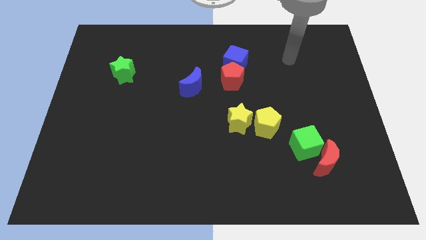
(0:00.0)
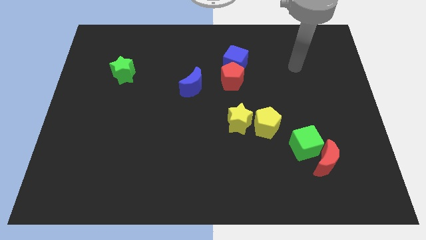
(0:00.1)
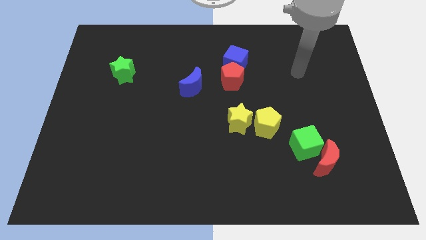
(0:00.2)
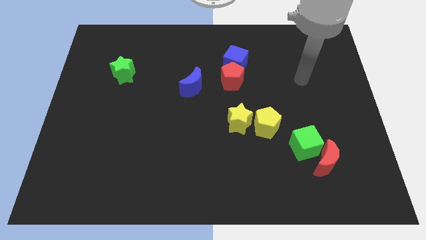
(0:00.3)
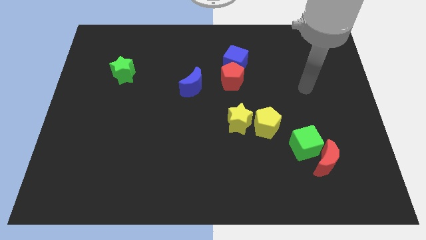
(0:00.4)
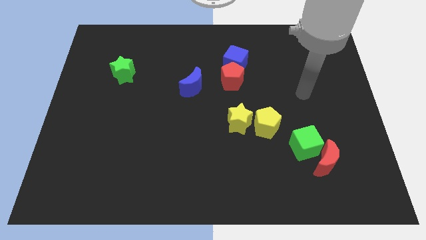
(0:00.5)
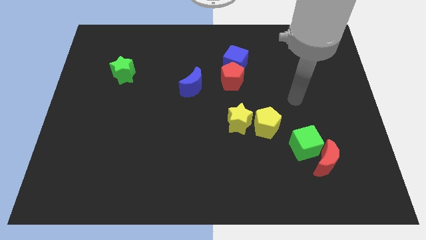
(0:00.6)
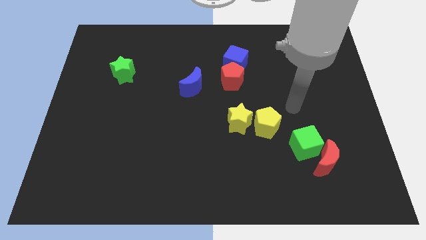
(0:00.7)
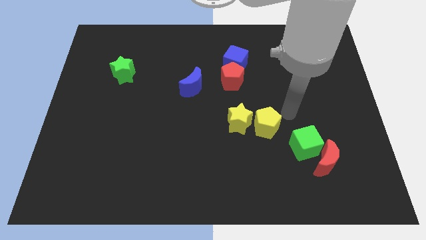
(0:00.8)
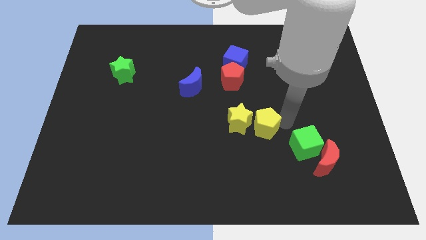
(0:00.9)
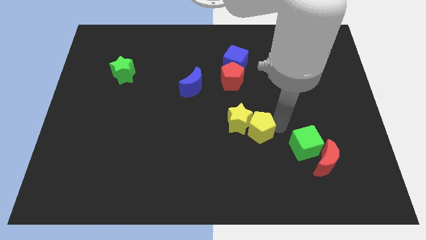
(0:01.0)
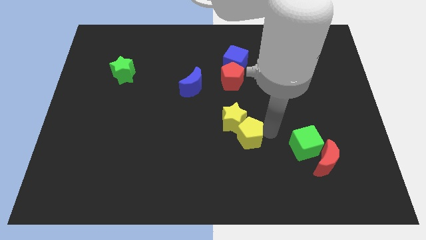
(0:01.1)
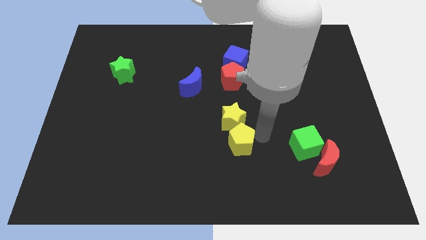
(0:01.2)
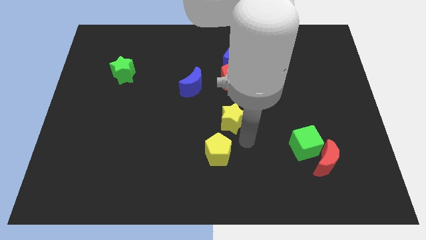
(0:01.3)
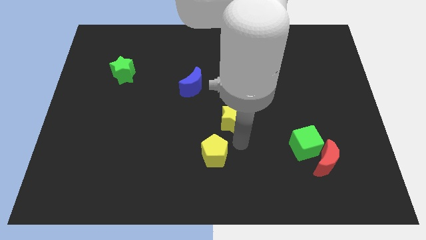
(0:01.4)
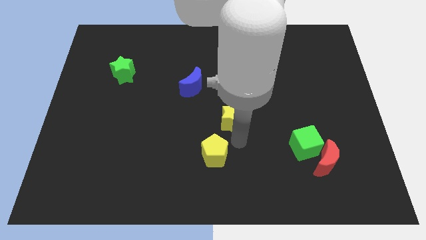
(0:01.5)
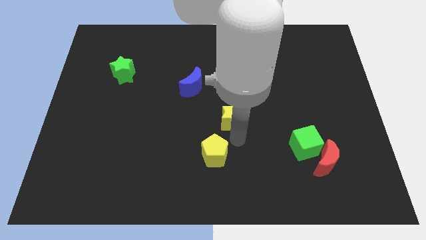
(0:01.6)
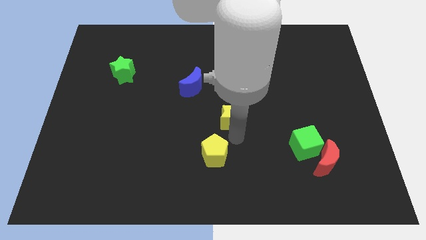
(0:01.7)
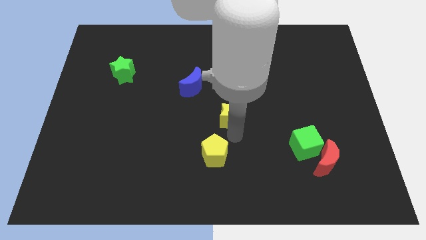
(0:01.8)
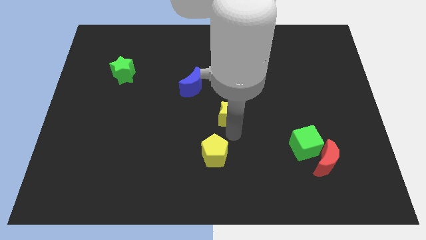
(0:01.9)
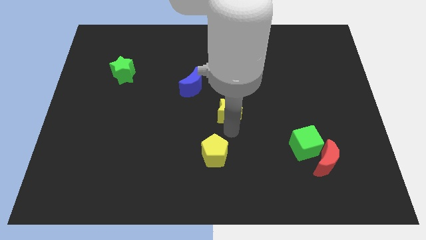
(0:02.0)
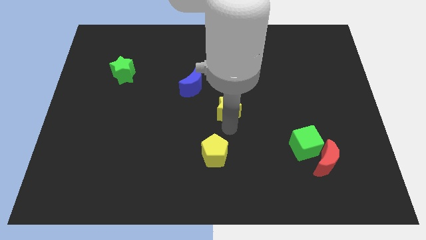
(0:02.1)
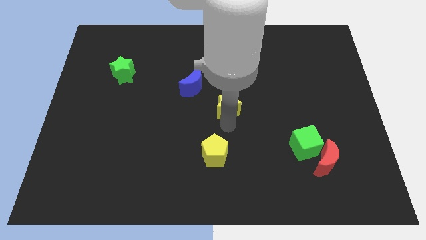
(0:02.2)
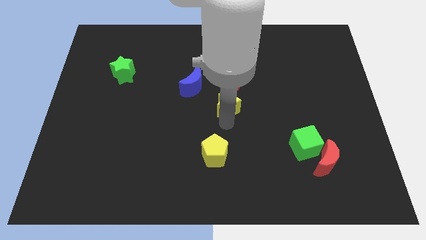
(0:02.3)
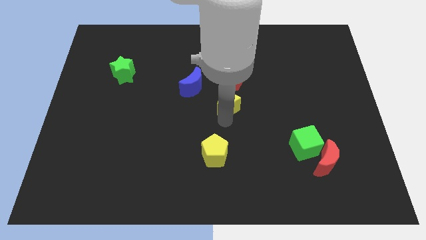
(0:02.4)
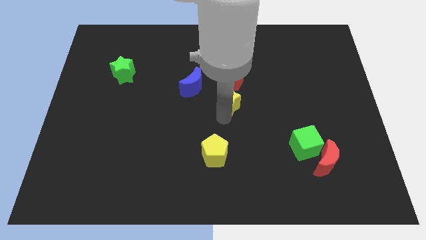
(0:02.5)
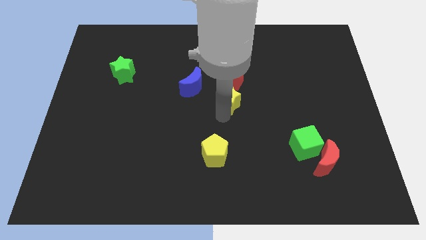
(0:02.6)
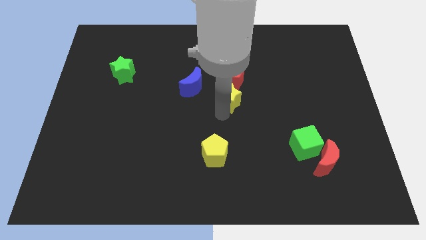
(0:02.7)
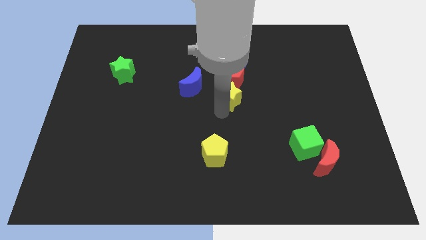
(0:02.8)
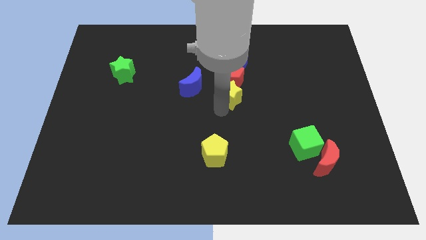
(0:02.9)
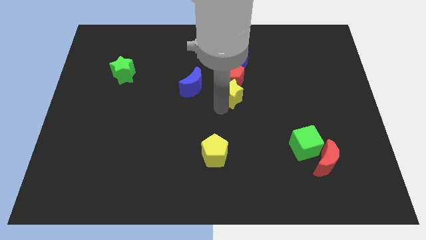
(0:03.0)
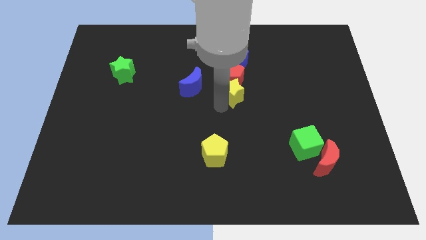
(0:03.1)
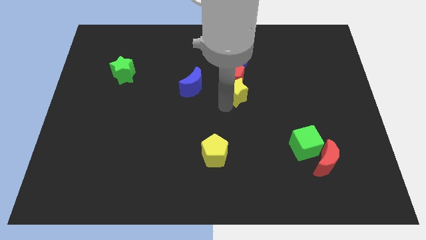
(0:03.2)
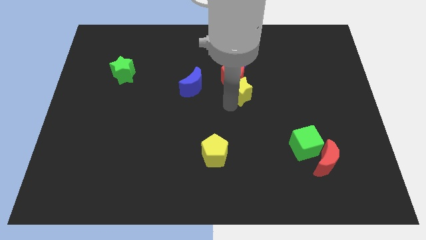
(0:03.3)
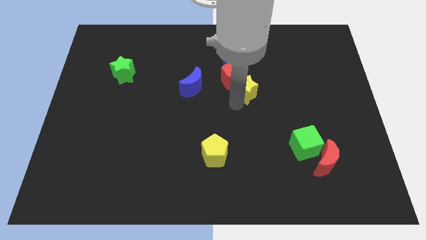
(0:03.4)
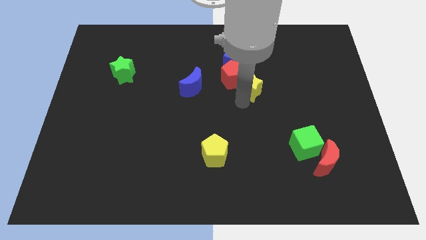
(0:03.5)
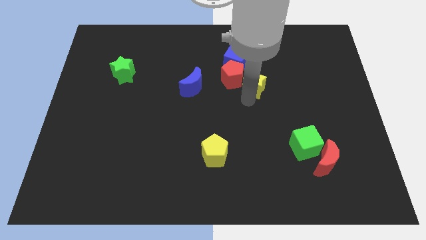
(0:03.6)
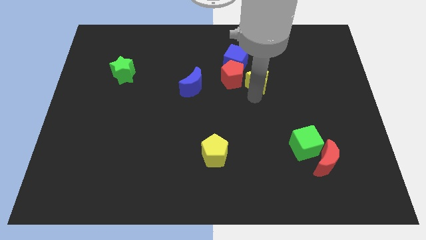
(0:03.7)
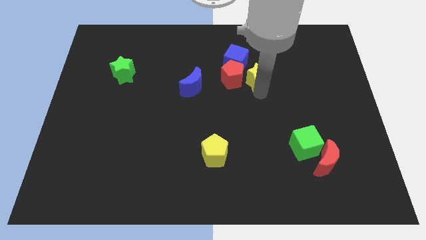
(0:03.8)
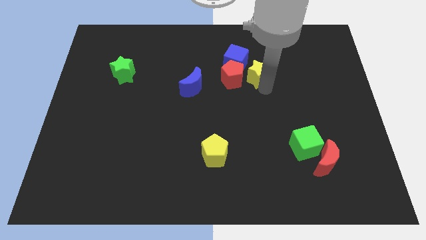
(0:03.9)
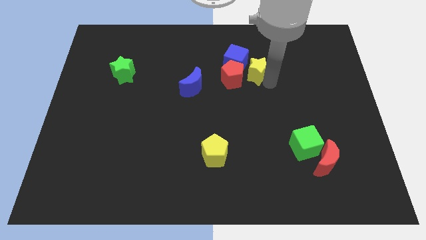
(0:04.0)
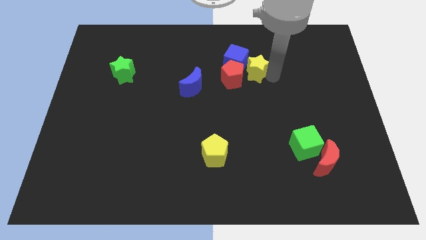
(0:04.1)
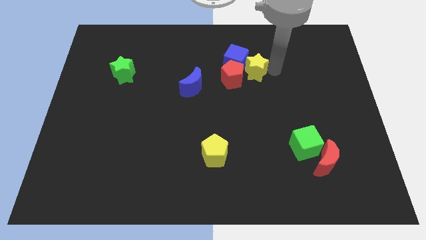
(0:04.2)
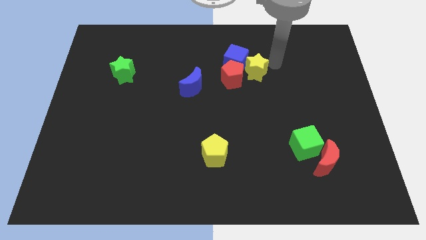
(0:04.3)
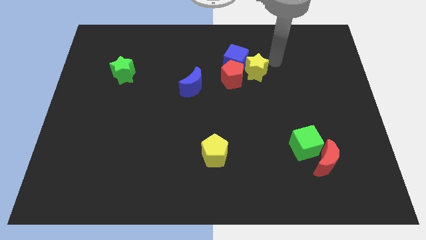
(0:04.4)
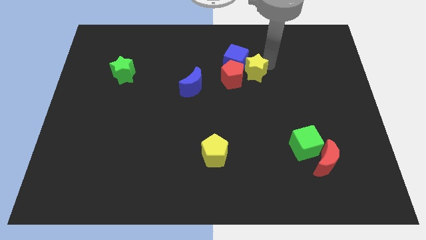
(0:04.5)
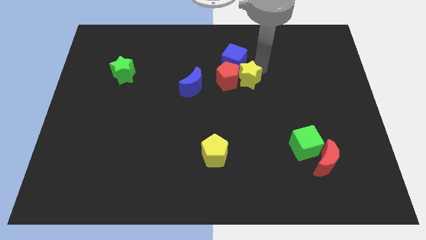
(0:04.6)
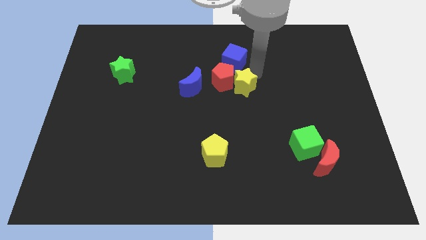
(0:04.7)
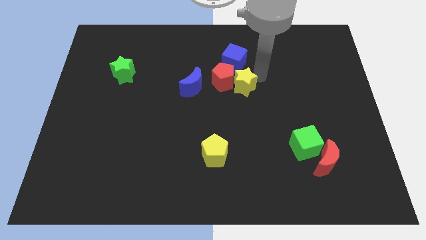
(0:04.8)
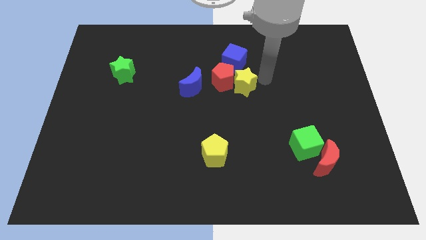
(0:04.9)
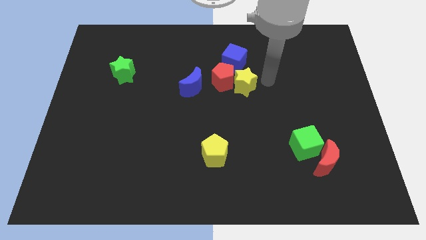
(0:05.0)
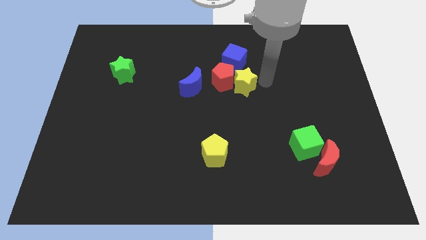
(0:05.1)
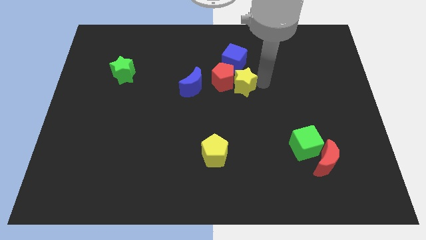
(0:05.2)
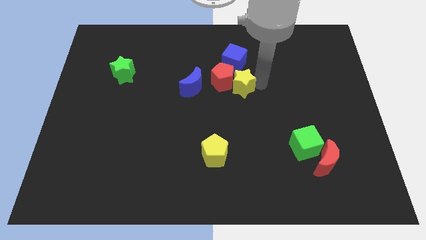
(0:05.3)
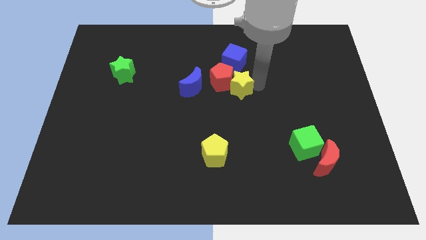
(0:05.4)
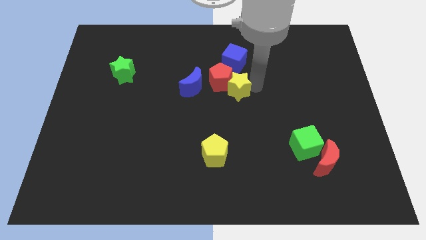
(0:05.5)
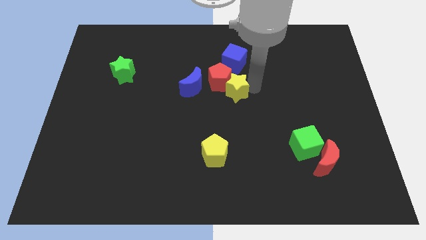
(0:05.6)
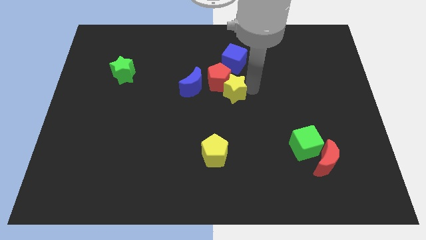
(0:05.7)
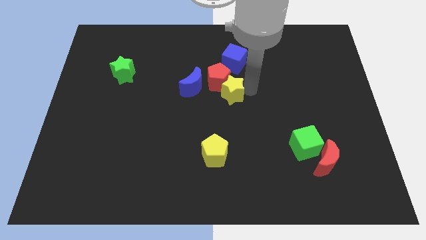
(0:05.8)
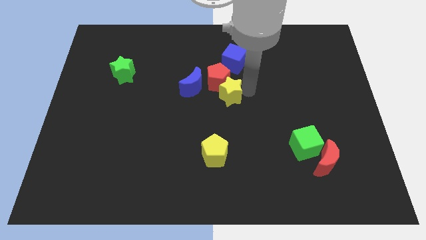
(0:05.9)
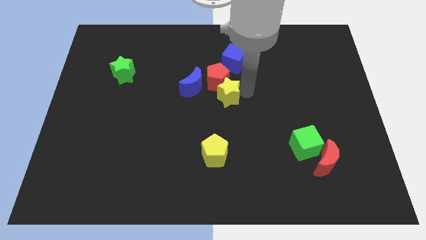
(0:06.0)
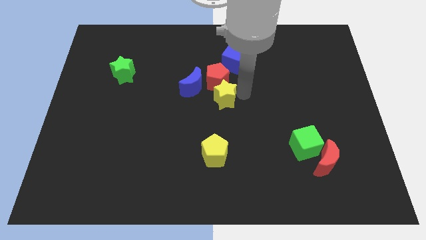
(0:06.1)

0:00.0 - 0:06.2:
slightly push the yellow star upwards and left

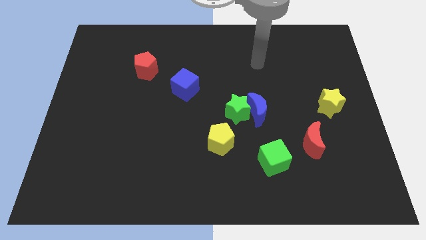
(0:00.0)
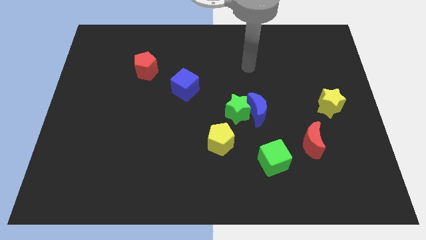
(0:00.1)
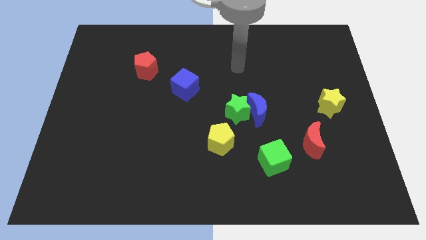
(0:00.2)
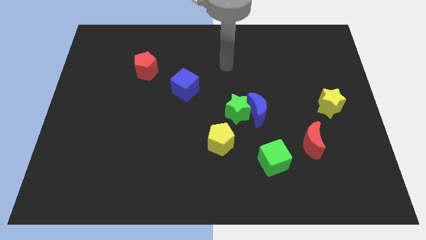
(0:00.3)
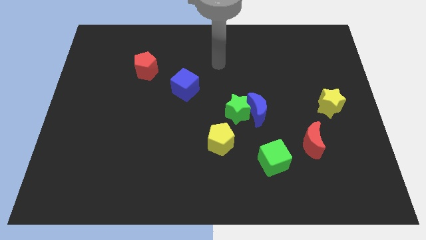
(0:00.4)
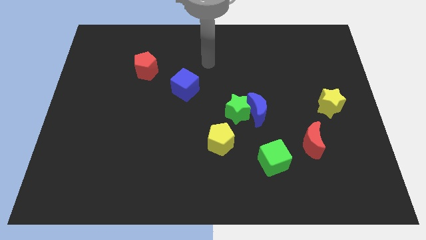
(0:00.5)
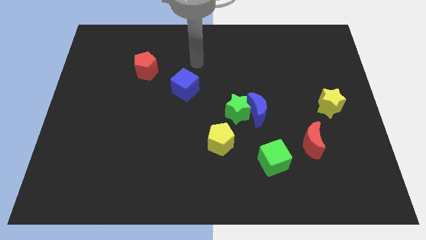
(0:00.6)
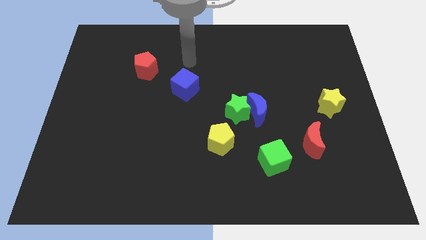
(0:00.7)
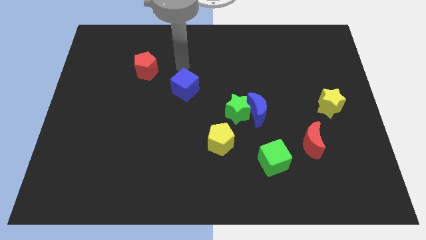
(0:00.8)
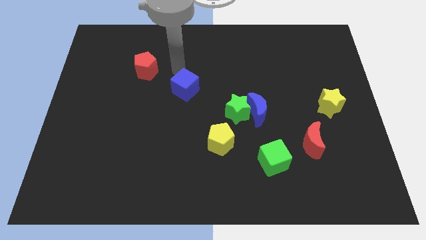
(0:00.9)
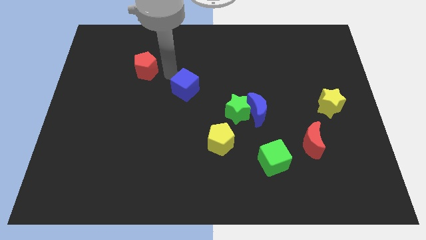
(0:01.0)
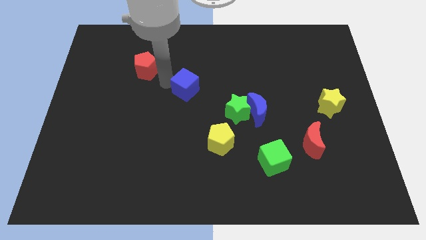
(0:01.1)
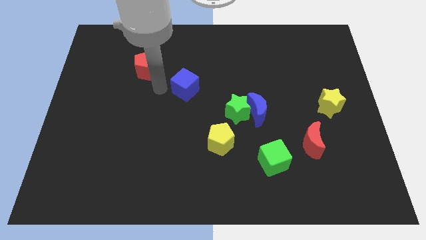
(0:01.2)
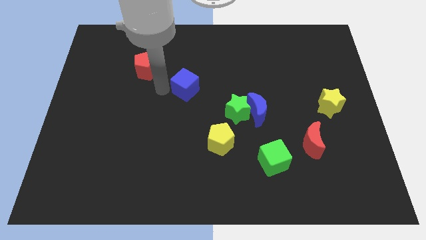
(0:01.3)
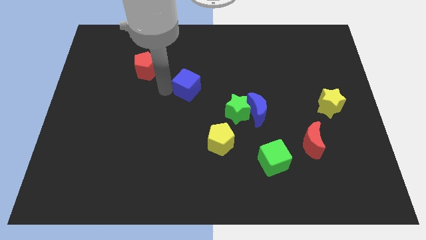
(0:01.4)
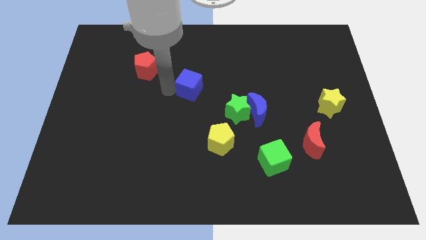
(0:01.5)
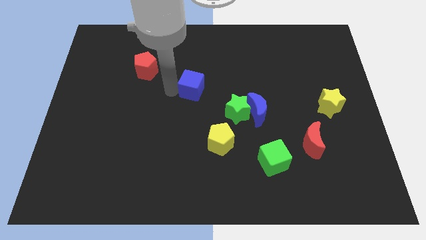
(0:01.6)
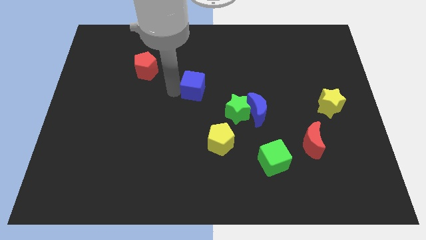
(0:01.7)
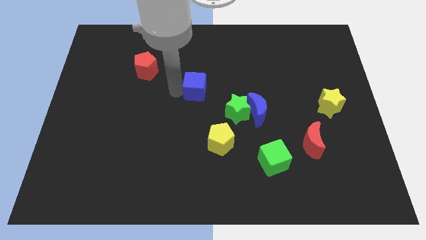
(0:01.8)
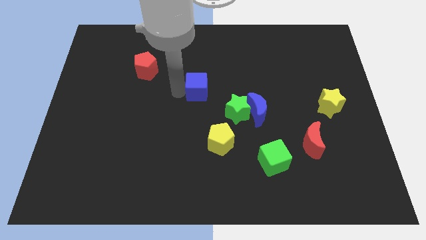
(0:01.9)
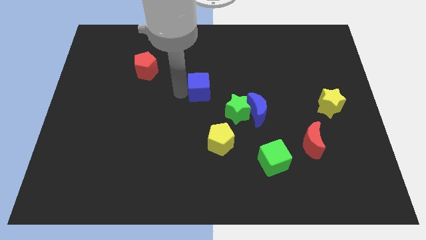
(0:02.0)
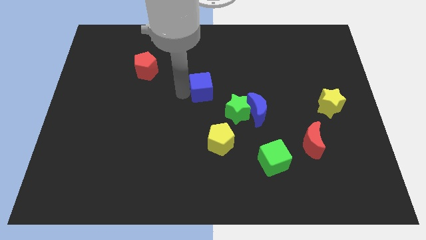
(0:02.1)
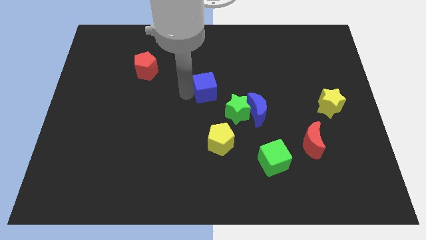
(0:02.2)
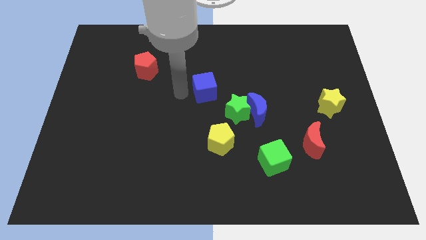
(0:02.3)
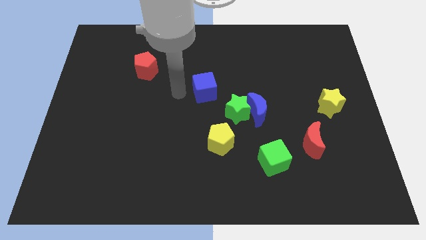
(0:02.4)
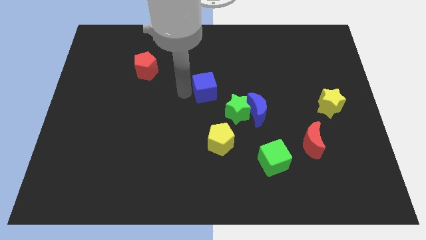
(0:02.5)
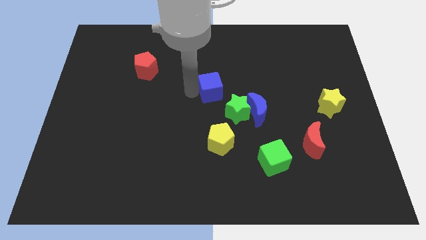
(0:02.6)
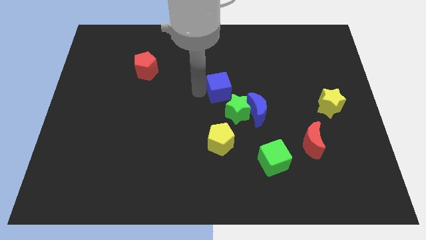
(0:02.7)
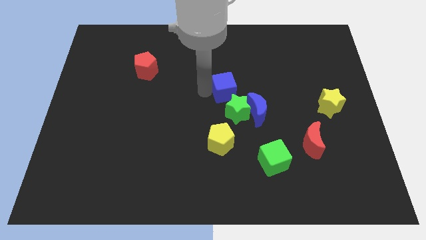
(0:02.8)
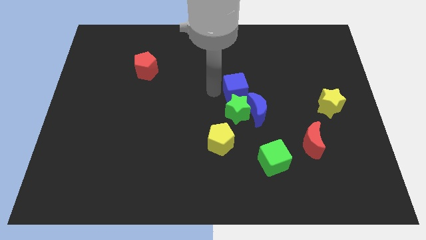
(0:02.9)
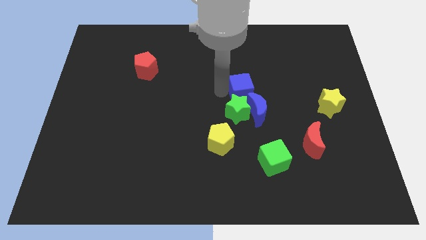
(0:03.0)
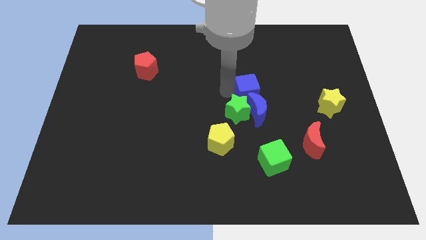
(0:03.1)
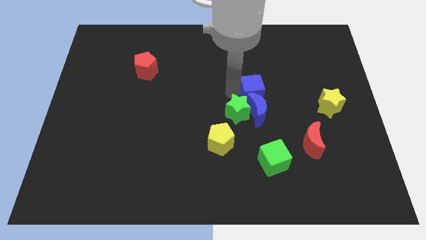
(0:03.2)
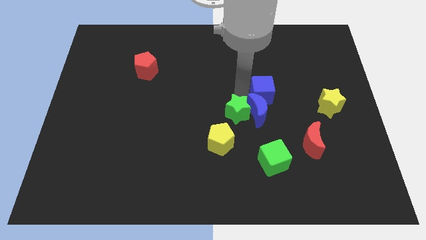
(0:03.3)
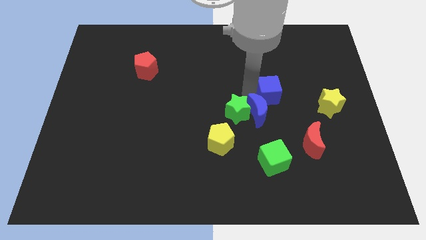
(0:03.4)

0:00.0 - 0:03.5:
slide the blue cube right
